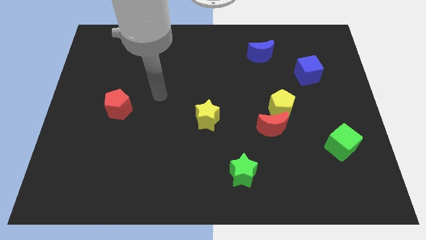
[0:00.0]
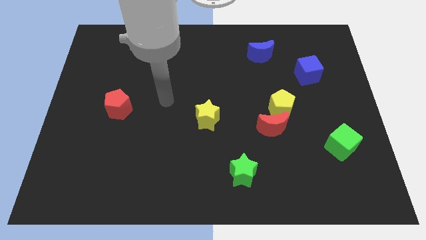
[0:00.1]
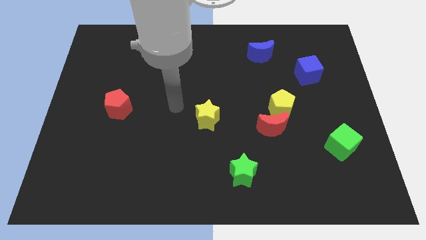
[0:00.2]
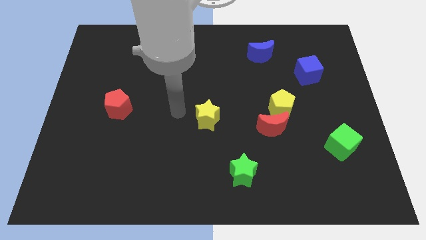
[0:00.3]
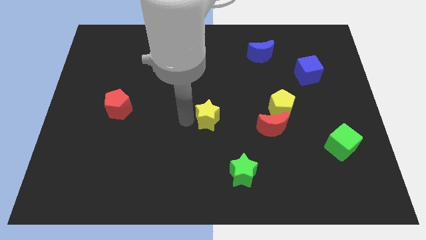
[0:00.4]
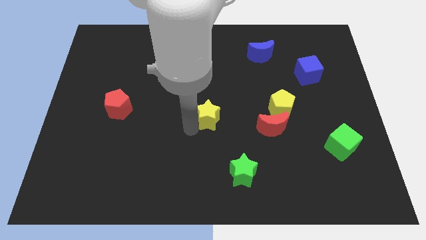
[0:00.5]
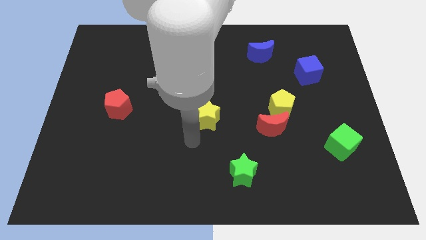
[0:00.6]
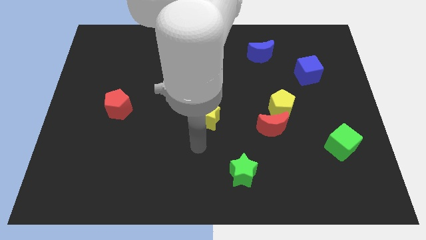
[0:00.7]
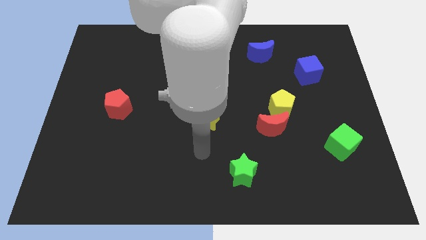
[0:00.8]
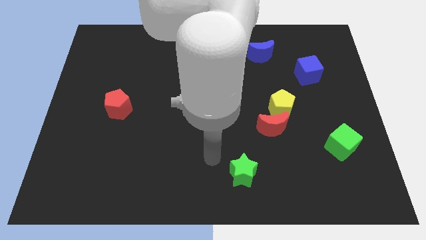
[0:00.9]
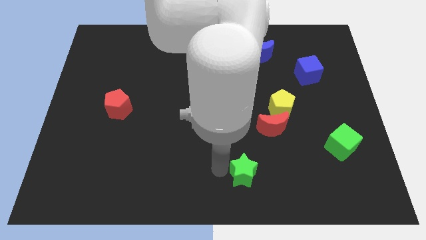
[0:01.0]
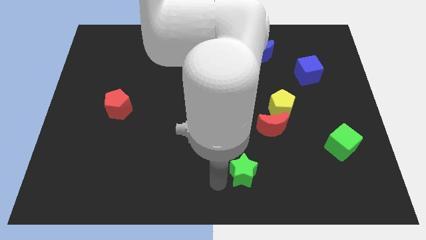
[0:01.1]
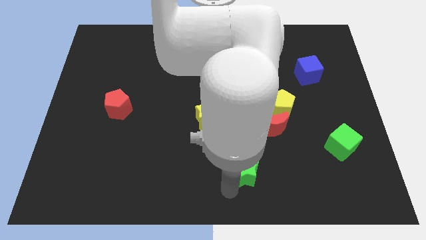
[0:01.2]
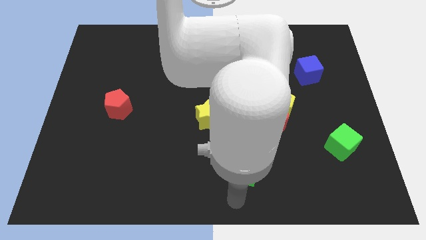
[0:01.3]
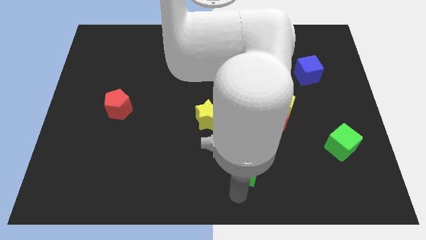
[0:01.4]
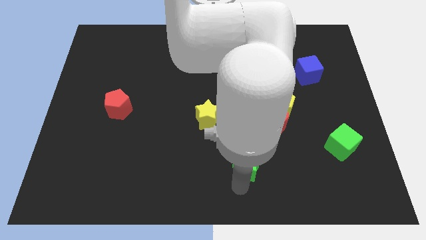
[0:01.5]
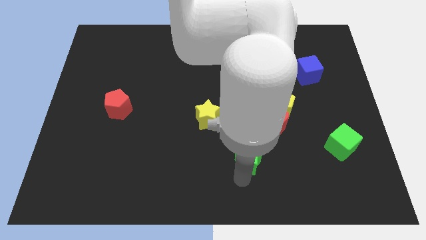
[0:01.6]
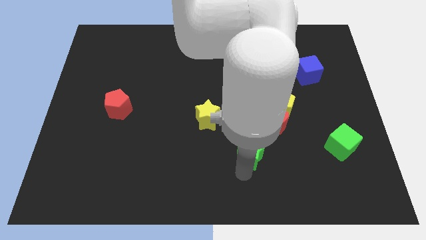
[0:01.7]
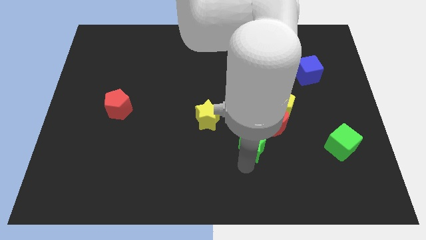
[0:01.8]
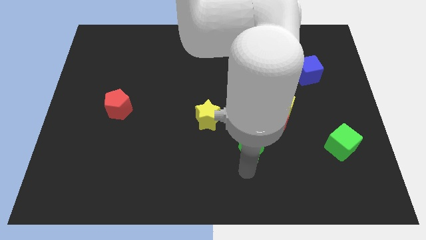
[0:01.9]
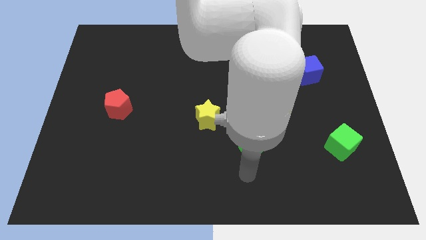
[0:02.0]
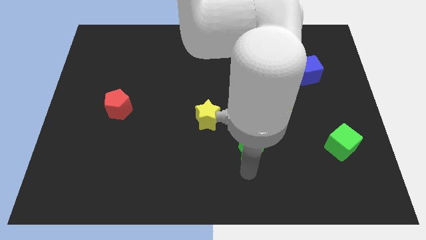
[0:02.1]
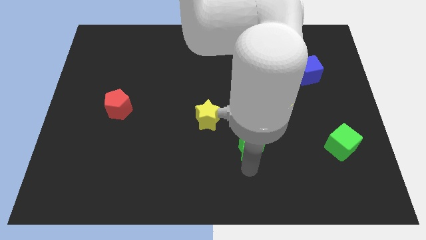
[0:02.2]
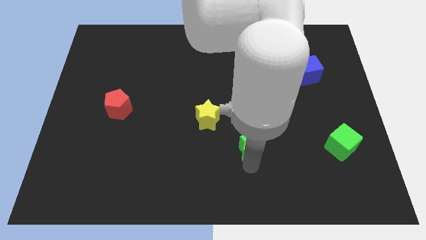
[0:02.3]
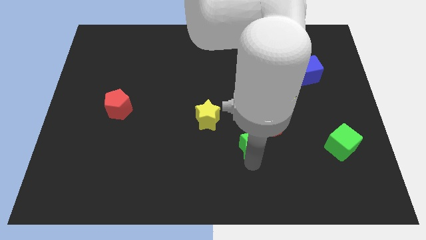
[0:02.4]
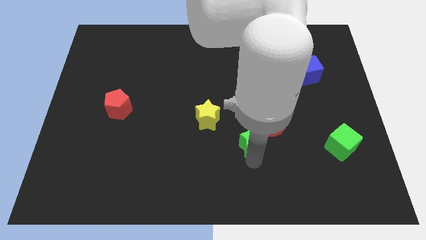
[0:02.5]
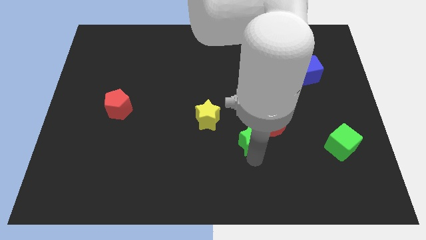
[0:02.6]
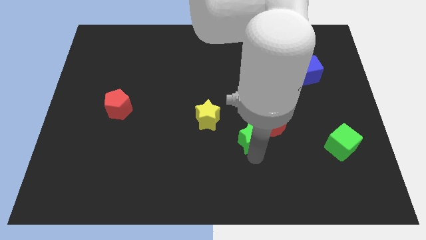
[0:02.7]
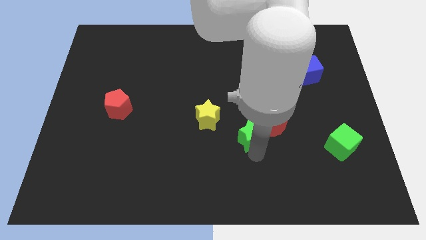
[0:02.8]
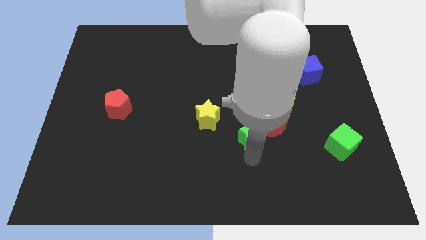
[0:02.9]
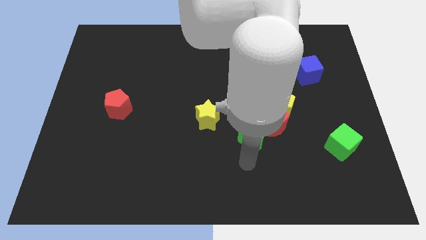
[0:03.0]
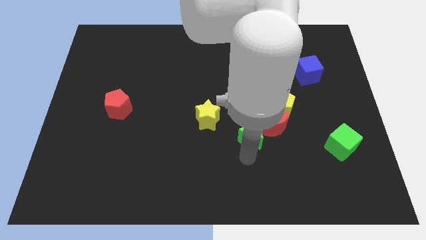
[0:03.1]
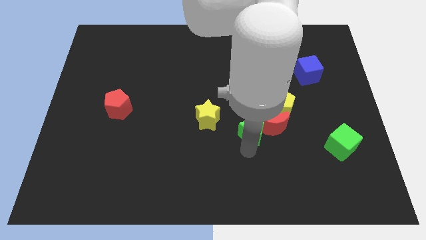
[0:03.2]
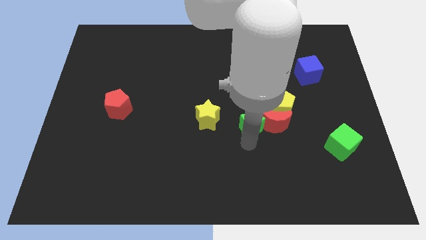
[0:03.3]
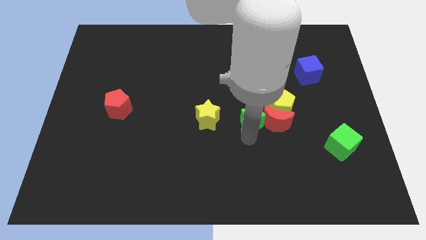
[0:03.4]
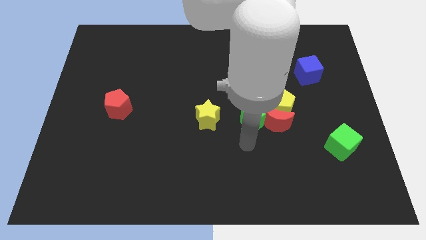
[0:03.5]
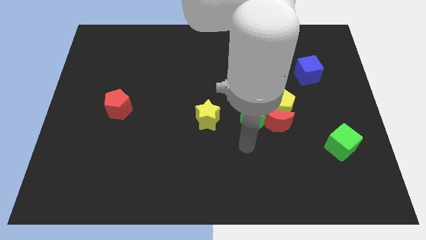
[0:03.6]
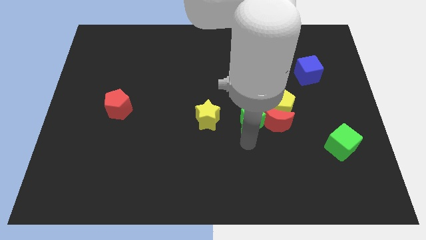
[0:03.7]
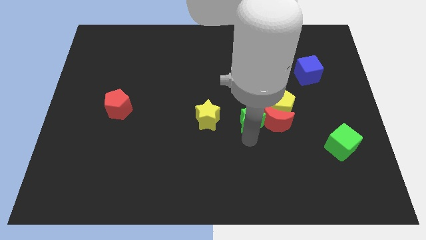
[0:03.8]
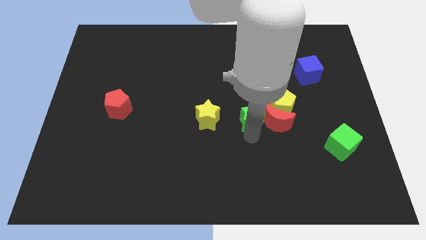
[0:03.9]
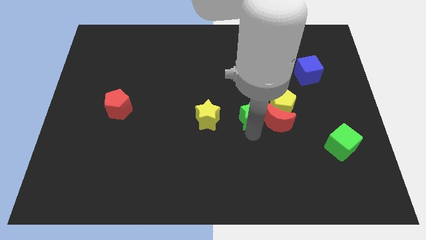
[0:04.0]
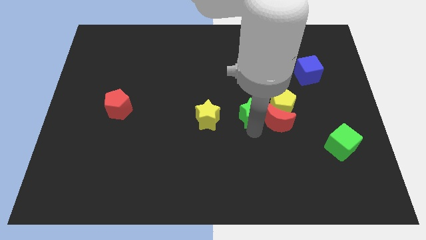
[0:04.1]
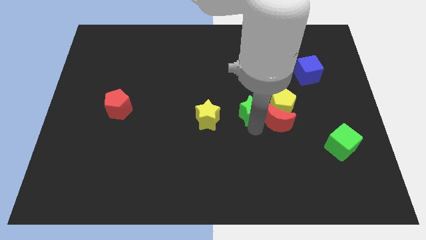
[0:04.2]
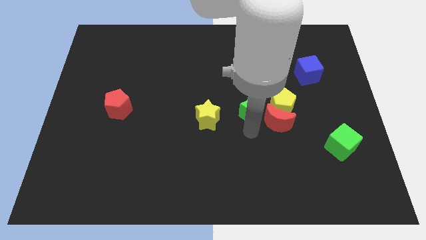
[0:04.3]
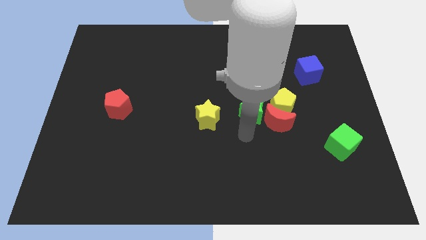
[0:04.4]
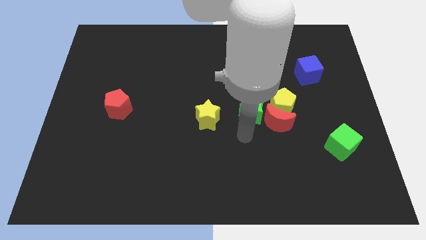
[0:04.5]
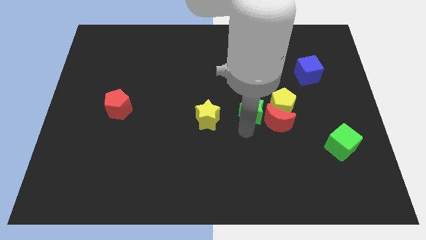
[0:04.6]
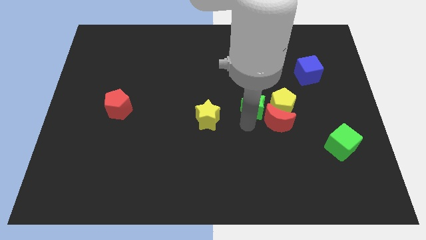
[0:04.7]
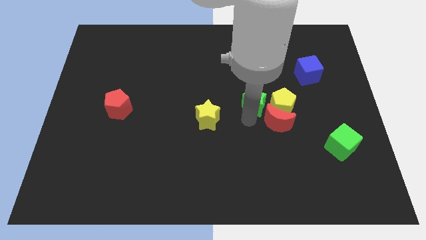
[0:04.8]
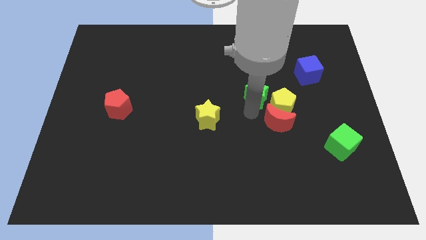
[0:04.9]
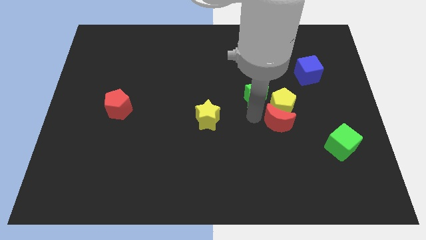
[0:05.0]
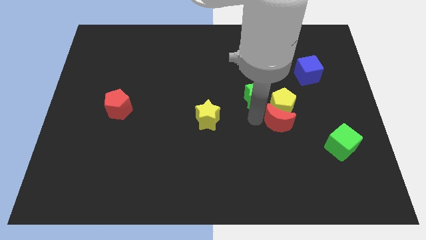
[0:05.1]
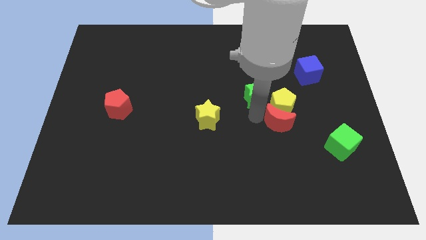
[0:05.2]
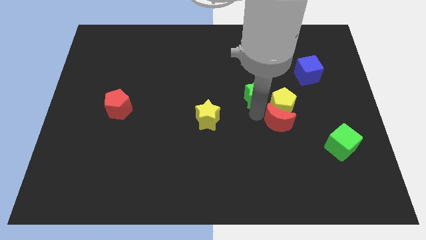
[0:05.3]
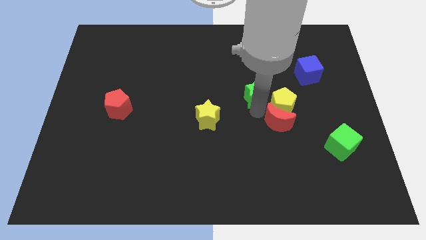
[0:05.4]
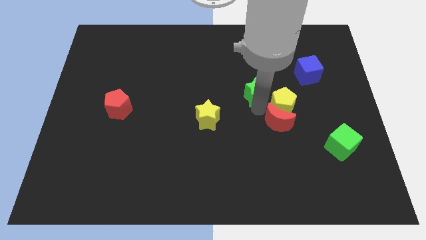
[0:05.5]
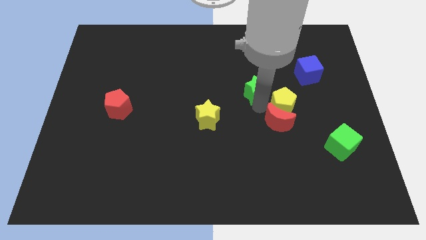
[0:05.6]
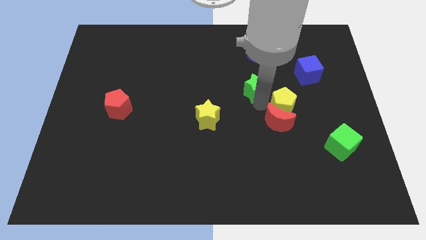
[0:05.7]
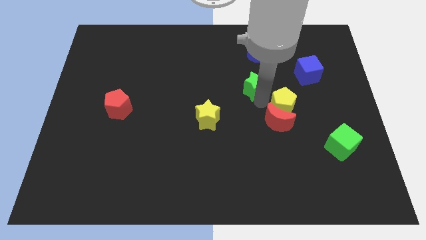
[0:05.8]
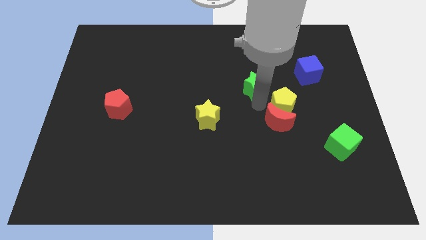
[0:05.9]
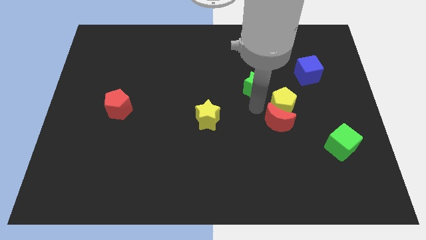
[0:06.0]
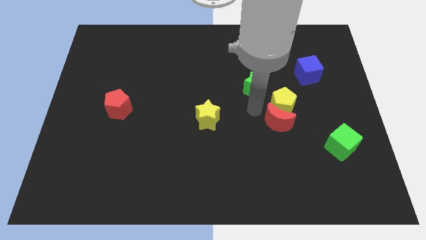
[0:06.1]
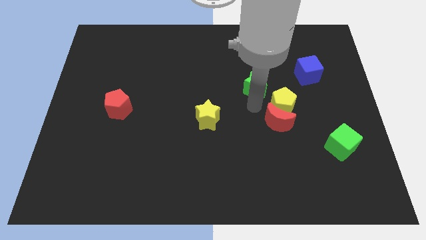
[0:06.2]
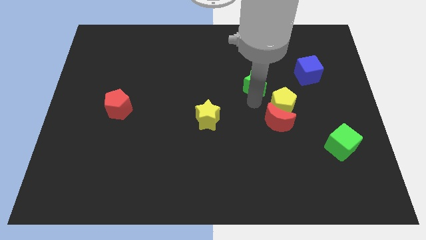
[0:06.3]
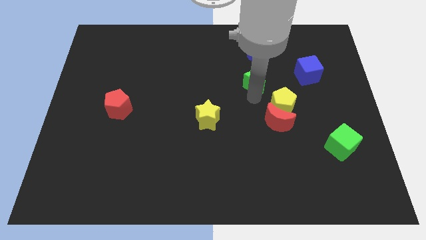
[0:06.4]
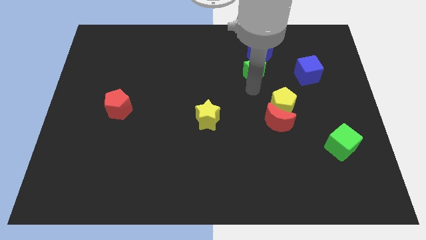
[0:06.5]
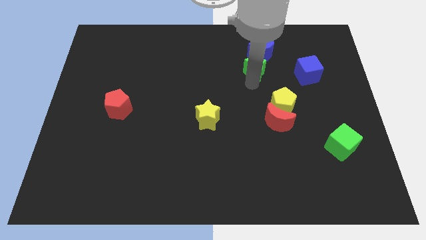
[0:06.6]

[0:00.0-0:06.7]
push the green star towards the blue moon
